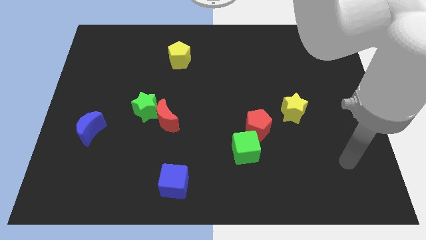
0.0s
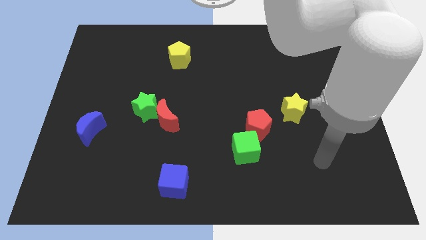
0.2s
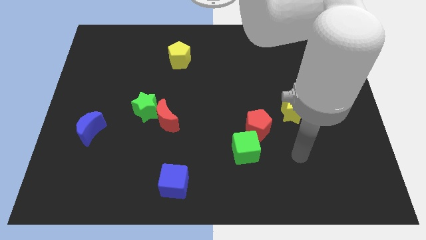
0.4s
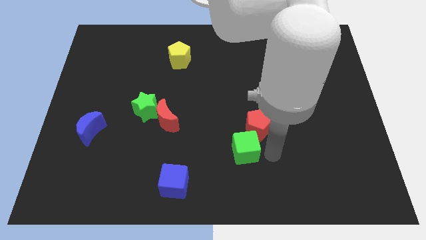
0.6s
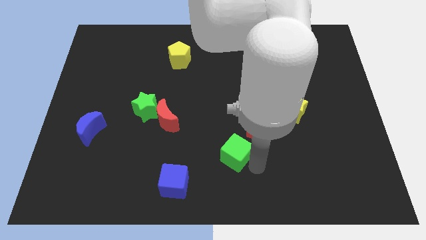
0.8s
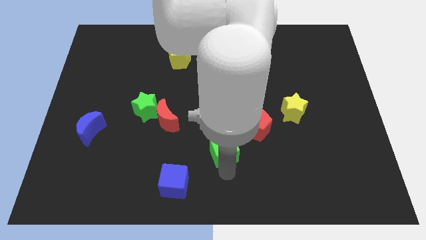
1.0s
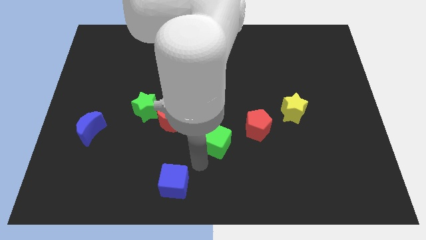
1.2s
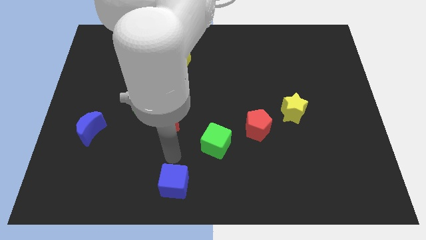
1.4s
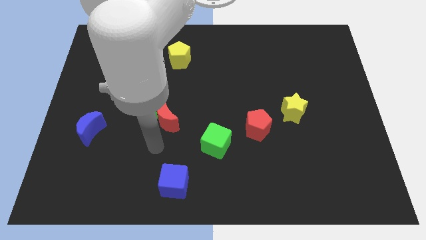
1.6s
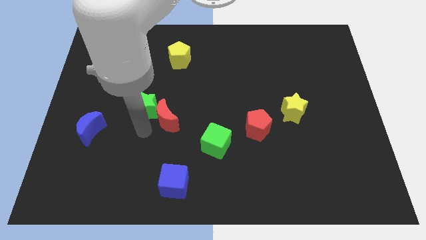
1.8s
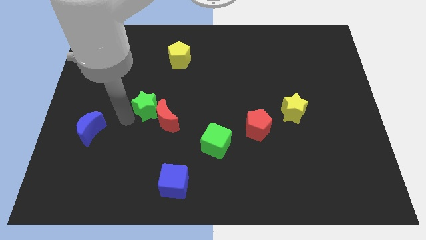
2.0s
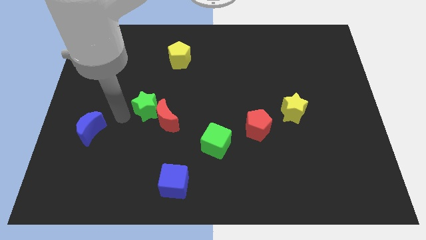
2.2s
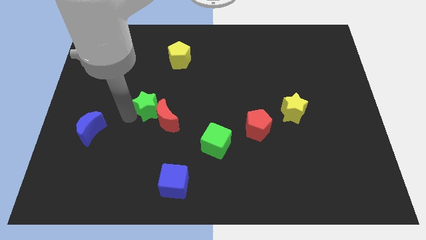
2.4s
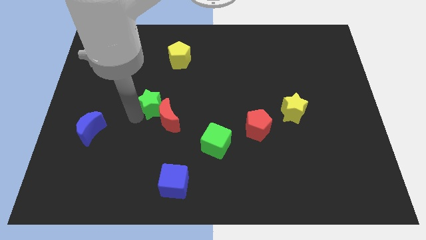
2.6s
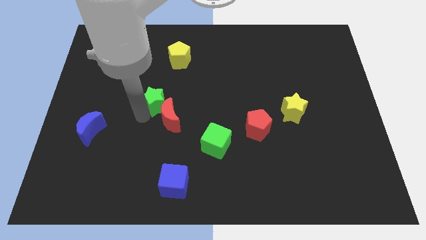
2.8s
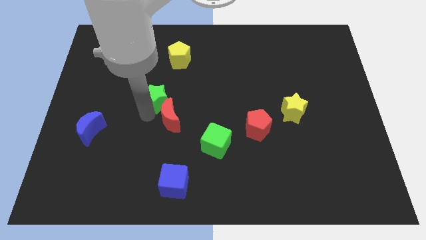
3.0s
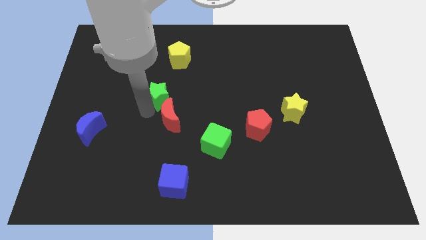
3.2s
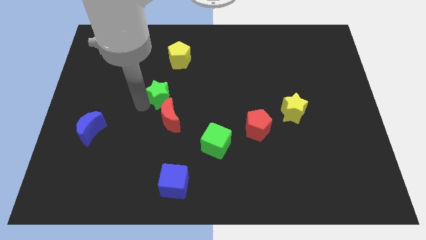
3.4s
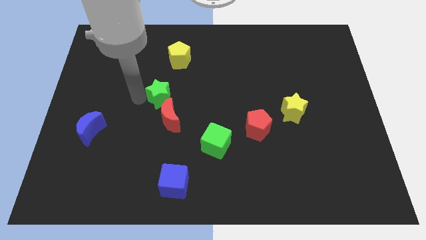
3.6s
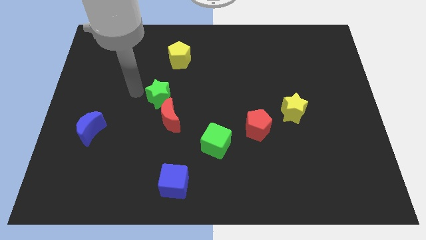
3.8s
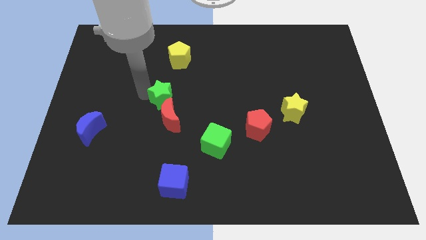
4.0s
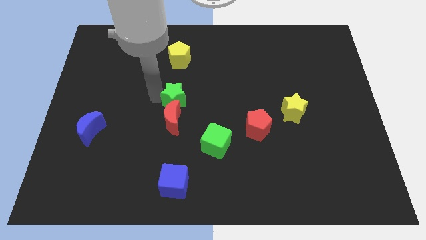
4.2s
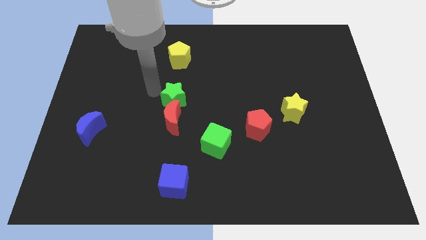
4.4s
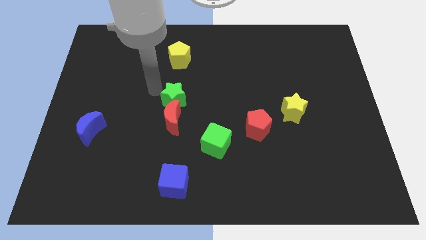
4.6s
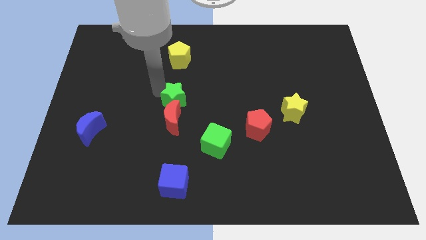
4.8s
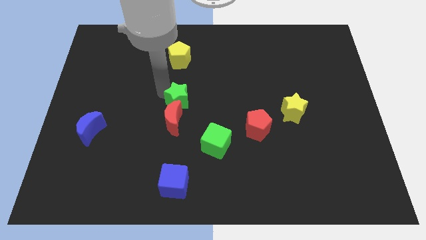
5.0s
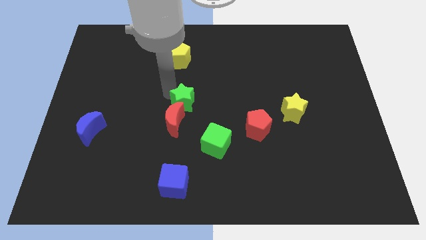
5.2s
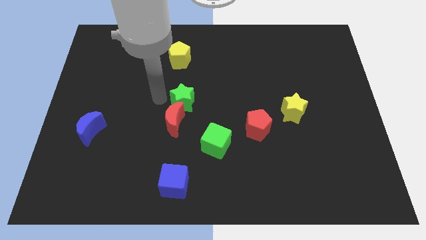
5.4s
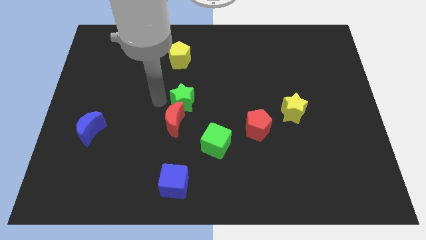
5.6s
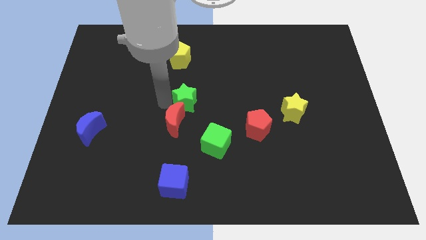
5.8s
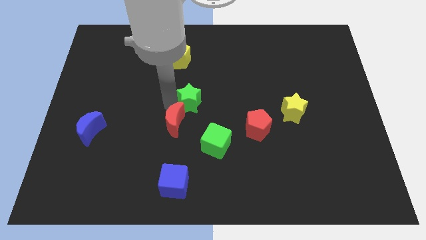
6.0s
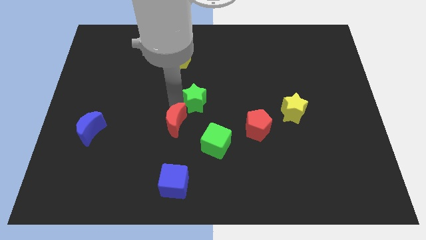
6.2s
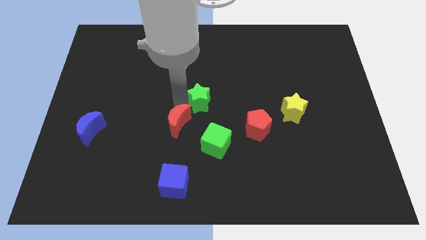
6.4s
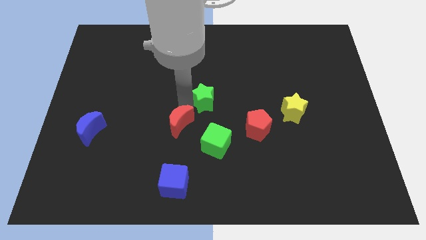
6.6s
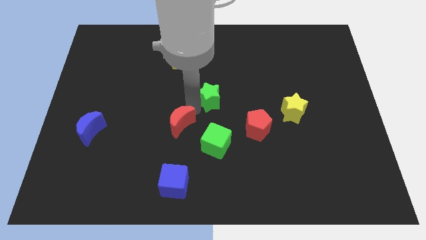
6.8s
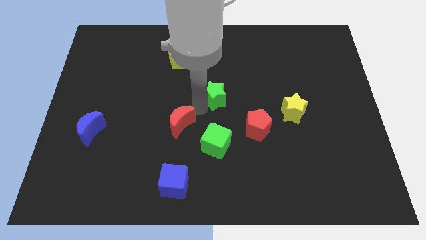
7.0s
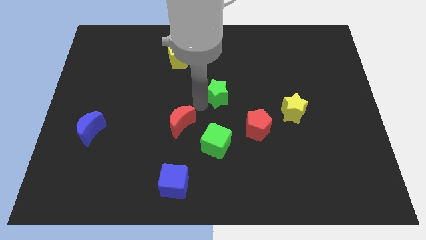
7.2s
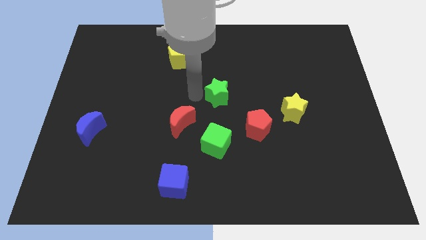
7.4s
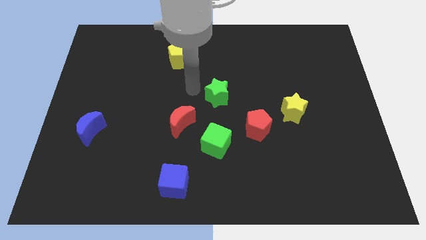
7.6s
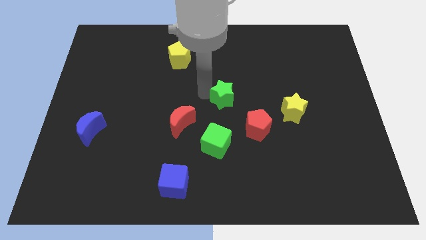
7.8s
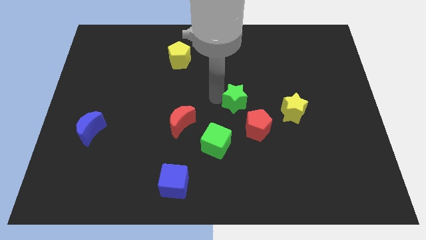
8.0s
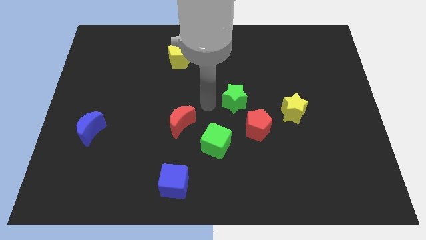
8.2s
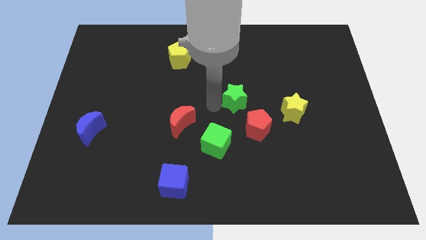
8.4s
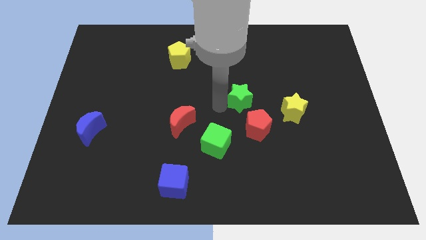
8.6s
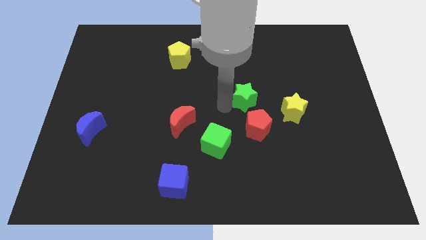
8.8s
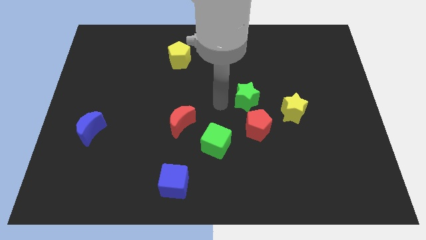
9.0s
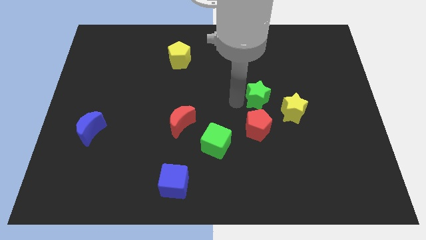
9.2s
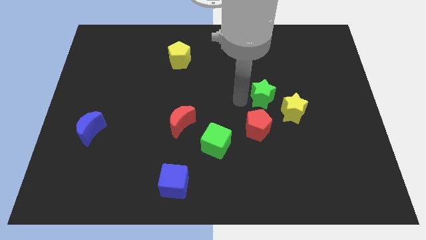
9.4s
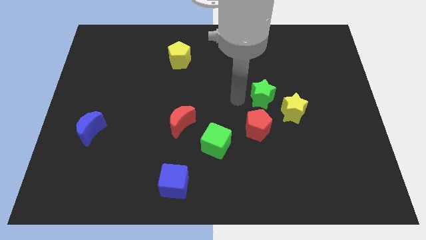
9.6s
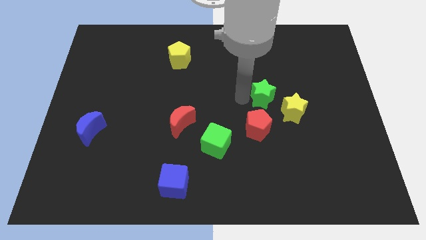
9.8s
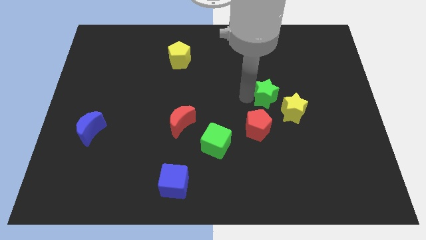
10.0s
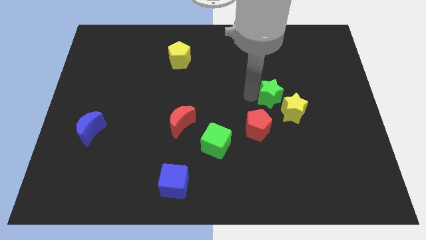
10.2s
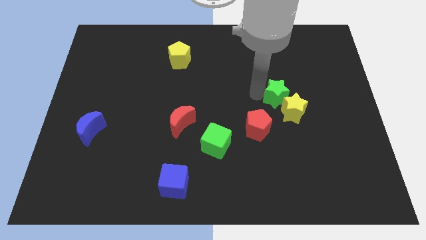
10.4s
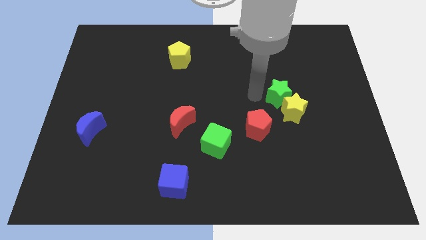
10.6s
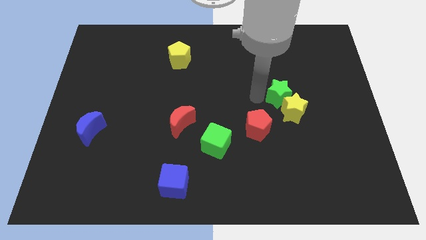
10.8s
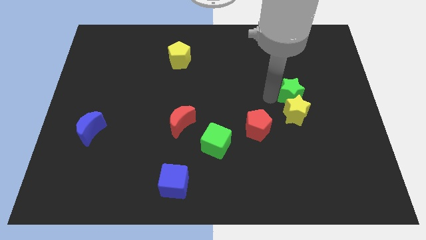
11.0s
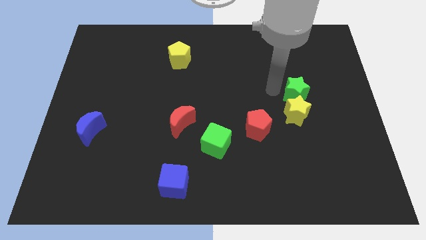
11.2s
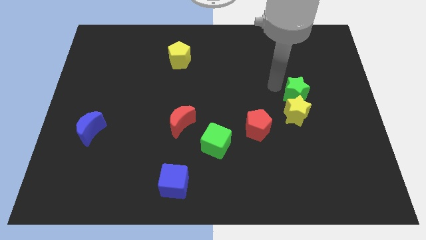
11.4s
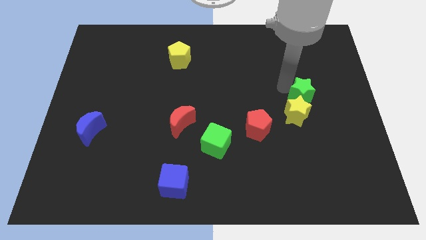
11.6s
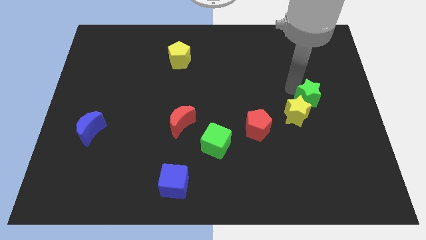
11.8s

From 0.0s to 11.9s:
slide the green star to the right side of the yellow star

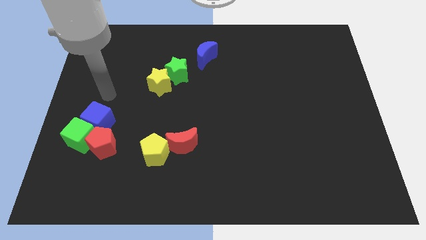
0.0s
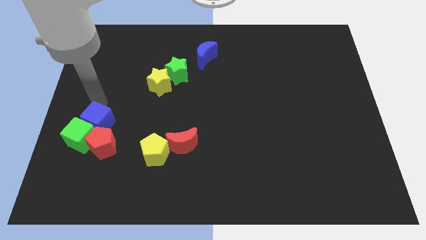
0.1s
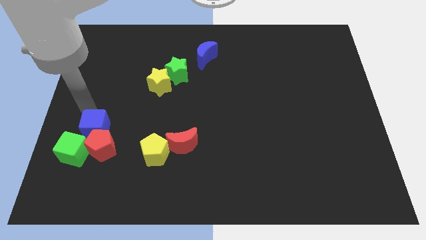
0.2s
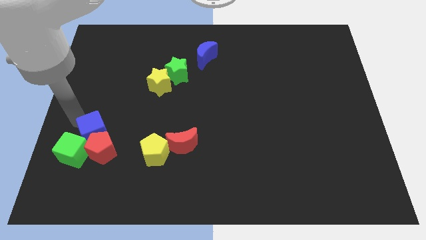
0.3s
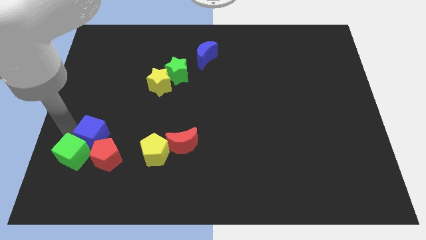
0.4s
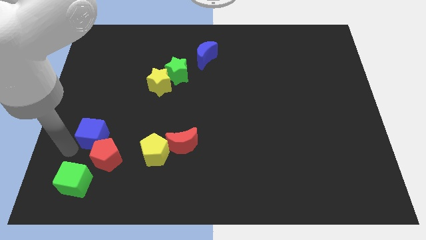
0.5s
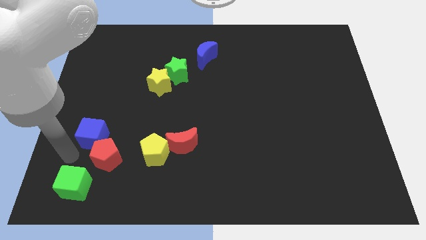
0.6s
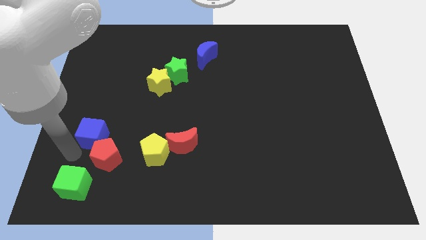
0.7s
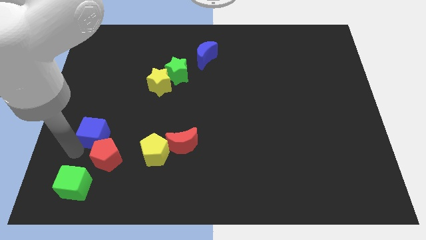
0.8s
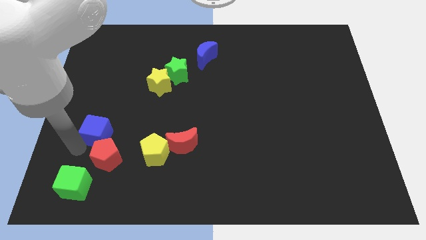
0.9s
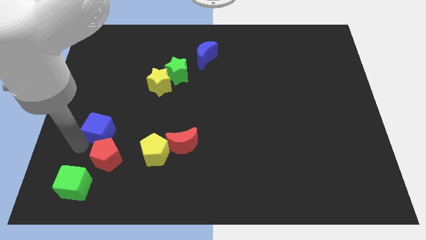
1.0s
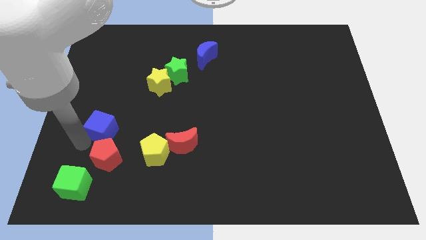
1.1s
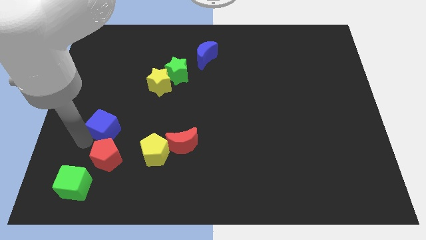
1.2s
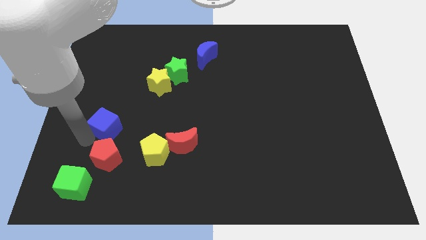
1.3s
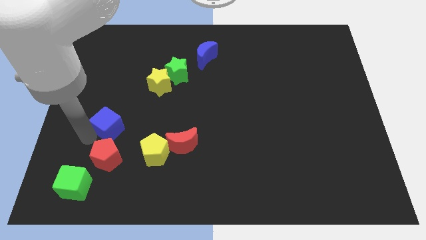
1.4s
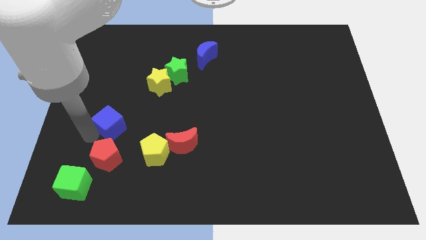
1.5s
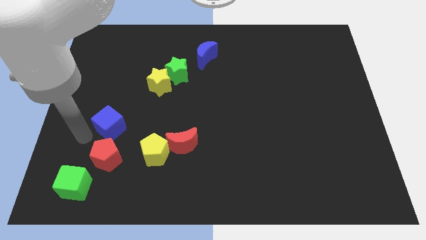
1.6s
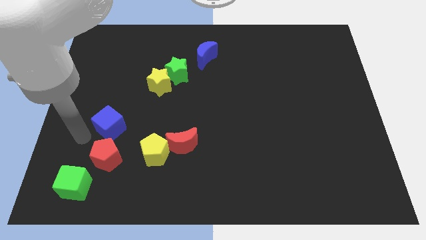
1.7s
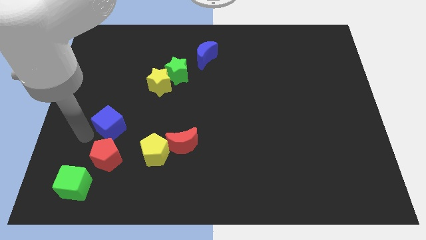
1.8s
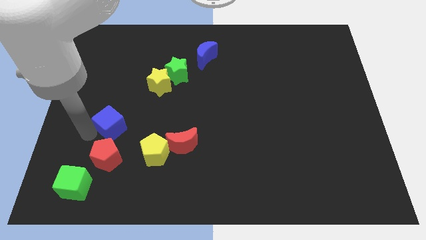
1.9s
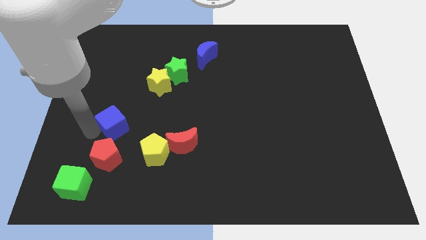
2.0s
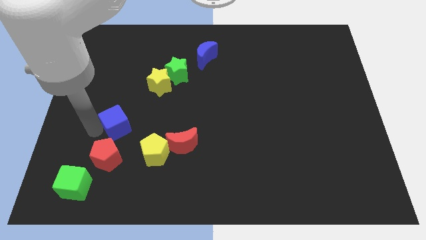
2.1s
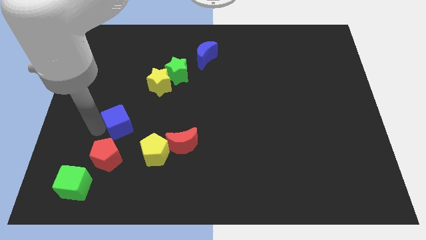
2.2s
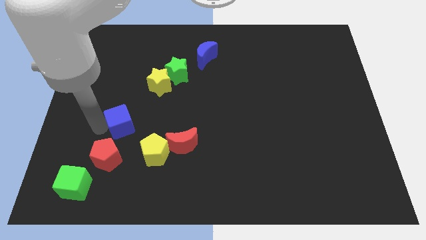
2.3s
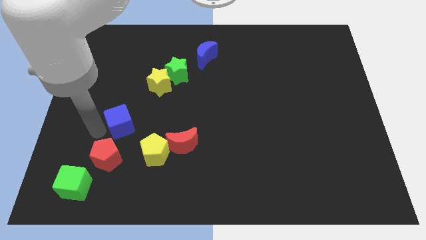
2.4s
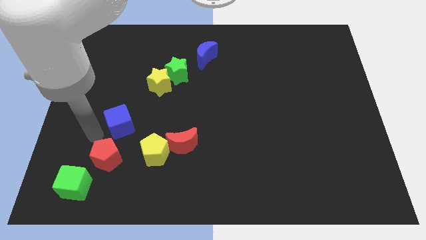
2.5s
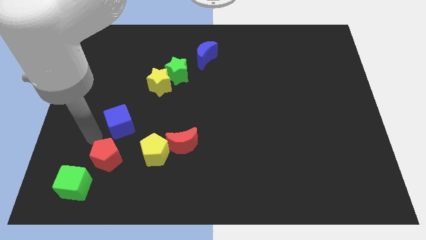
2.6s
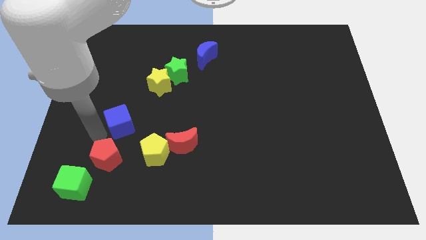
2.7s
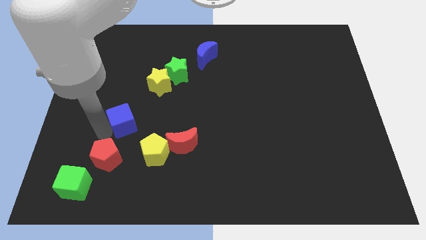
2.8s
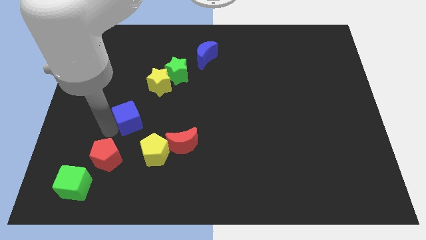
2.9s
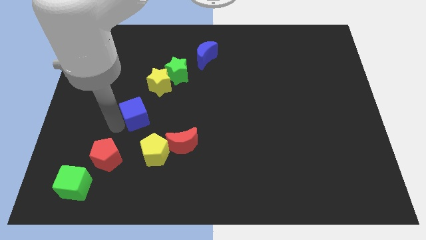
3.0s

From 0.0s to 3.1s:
put the blue cube below the yellow star
